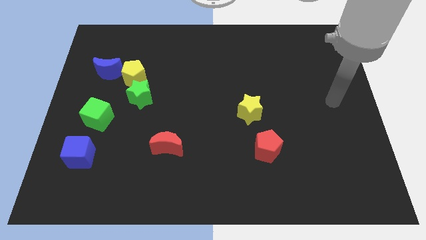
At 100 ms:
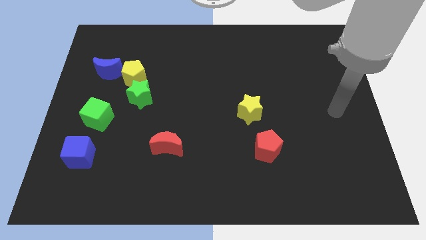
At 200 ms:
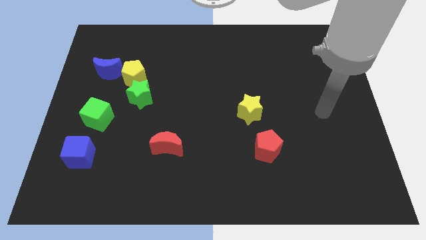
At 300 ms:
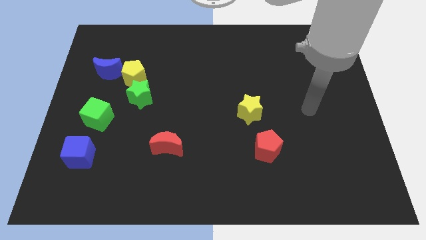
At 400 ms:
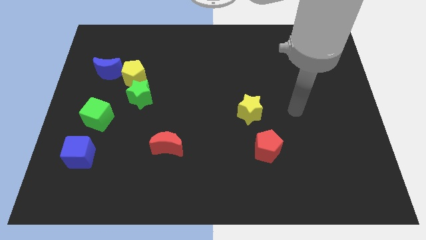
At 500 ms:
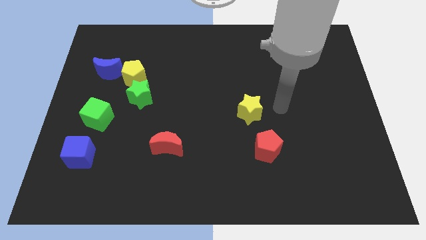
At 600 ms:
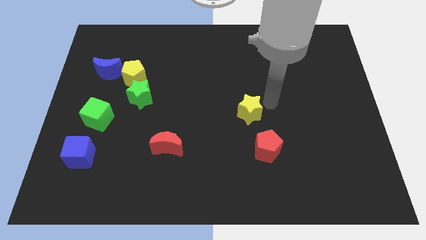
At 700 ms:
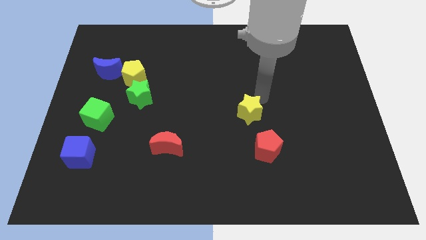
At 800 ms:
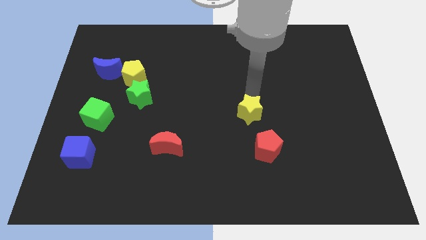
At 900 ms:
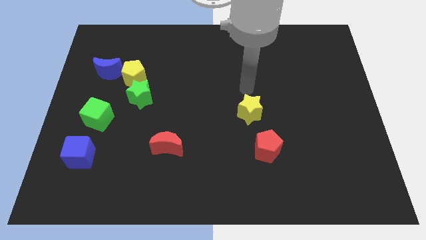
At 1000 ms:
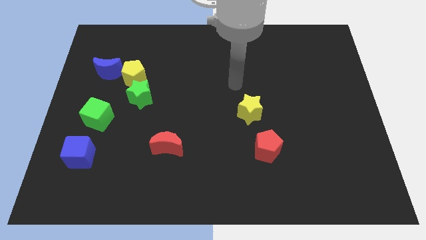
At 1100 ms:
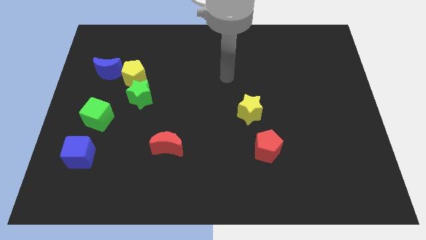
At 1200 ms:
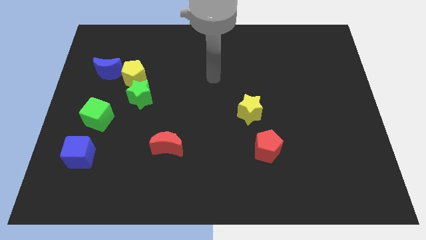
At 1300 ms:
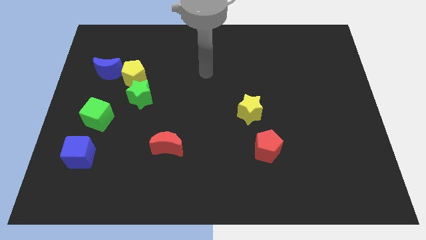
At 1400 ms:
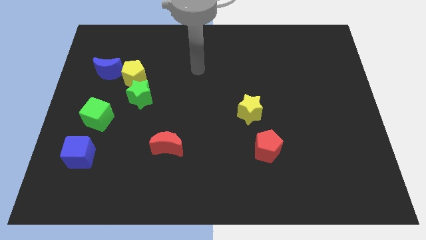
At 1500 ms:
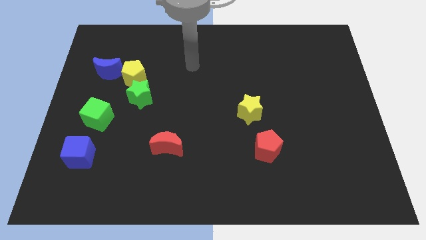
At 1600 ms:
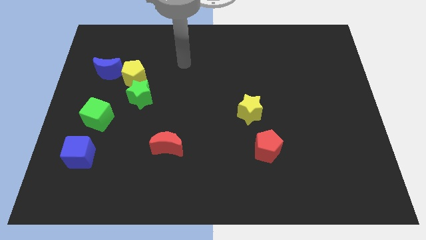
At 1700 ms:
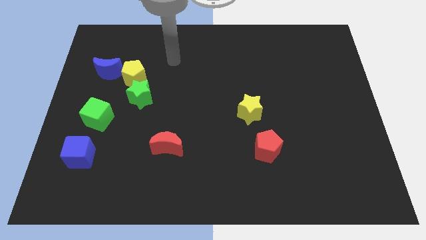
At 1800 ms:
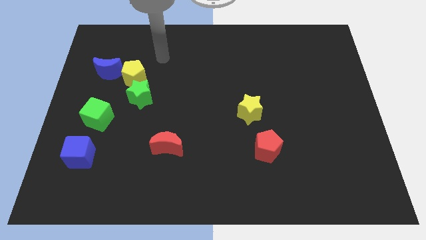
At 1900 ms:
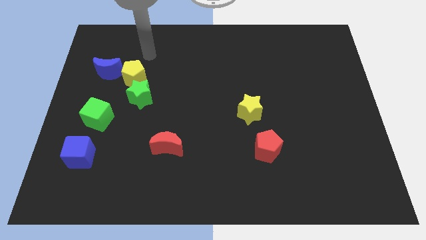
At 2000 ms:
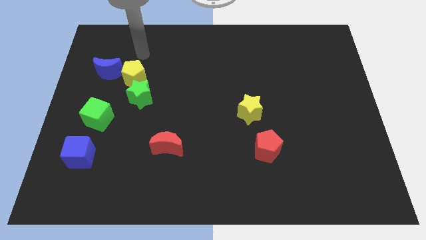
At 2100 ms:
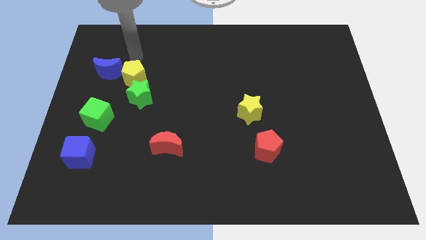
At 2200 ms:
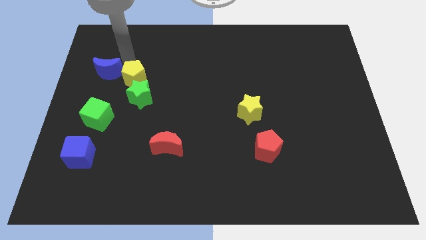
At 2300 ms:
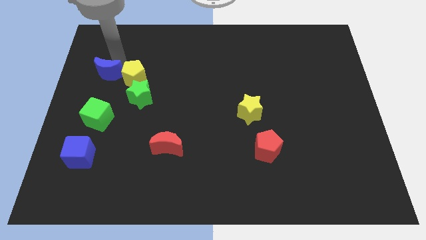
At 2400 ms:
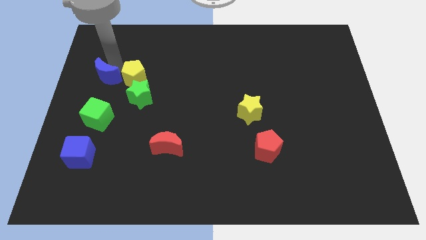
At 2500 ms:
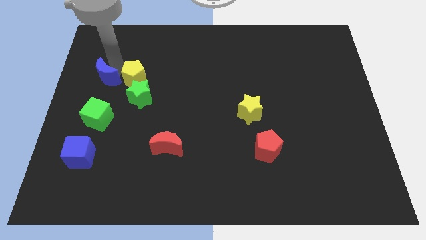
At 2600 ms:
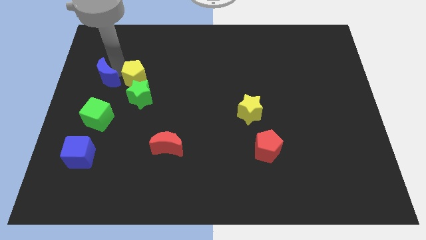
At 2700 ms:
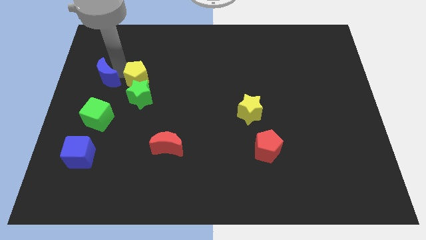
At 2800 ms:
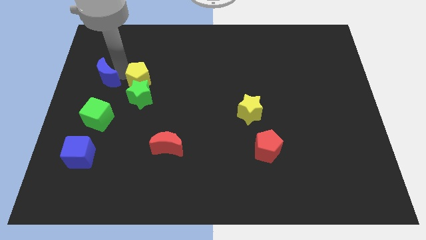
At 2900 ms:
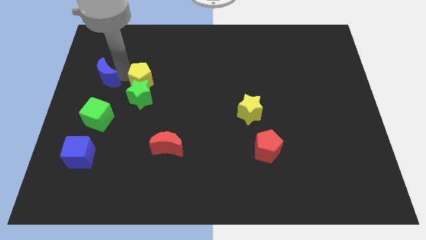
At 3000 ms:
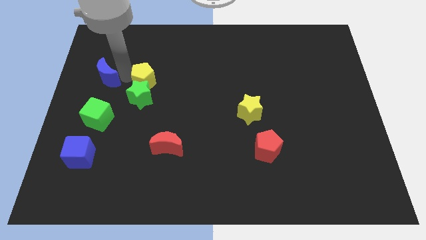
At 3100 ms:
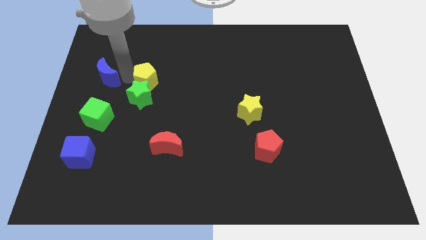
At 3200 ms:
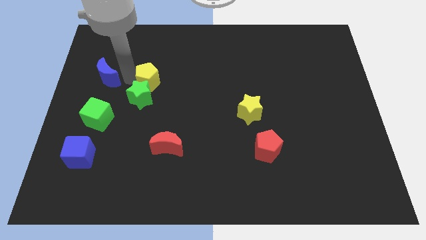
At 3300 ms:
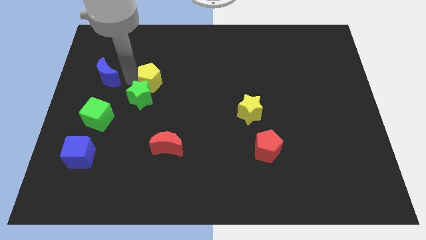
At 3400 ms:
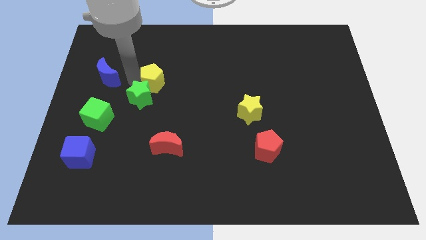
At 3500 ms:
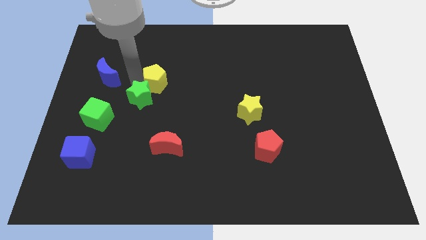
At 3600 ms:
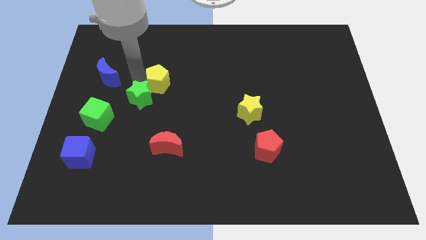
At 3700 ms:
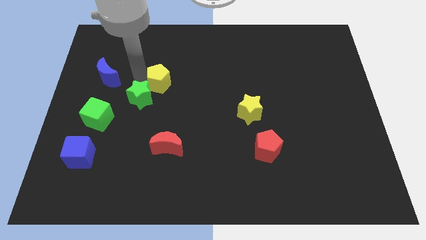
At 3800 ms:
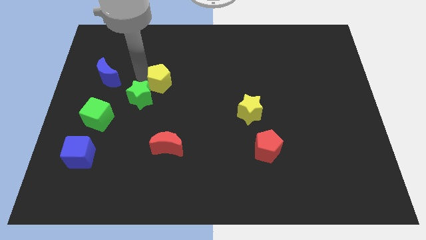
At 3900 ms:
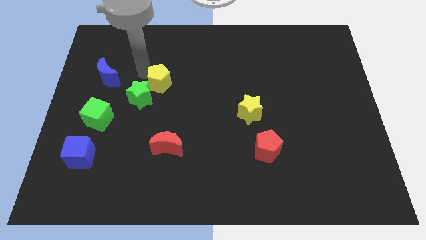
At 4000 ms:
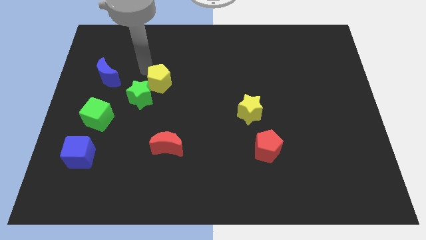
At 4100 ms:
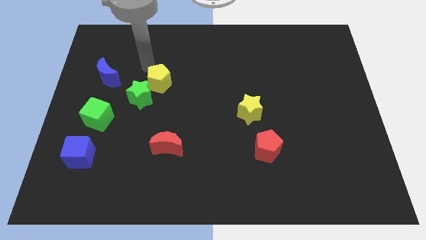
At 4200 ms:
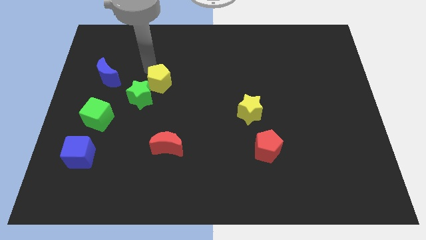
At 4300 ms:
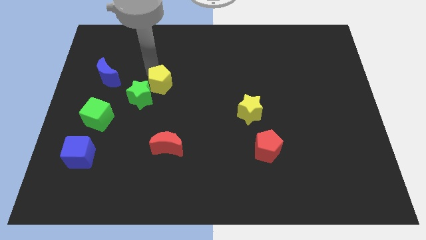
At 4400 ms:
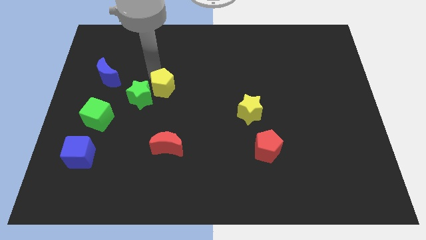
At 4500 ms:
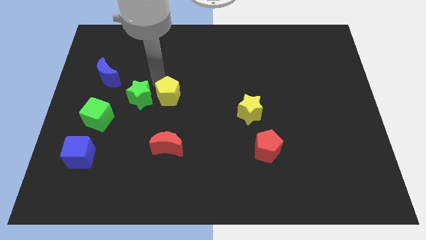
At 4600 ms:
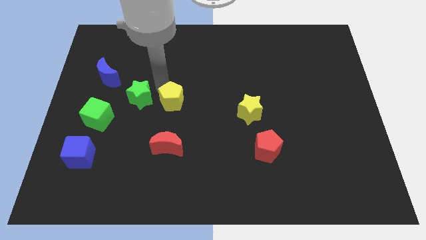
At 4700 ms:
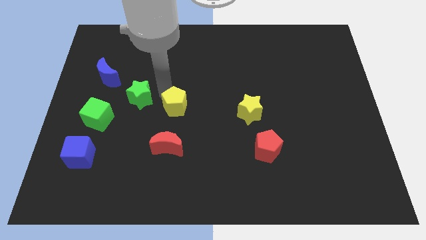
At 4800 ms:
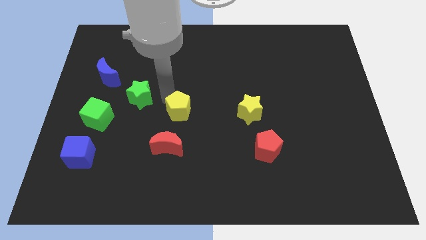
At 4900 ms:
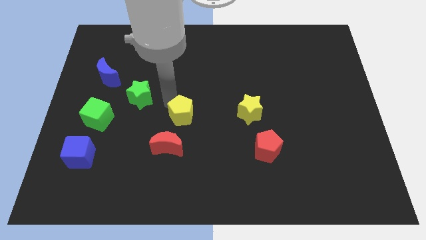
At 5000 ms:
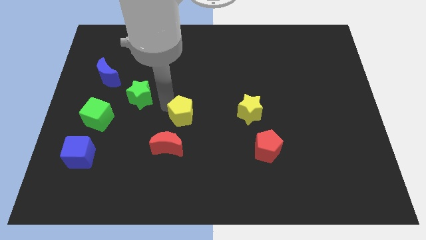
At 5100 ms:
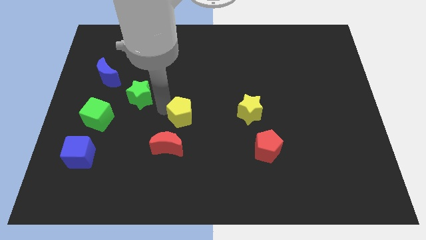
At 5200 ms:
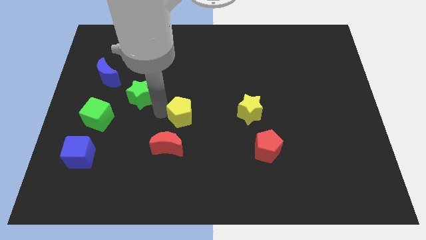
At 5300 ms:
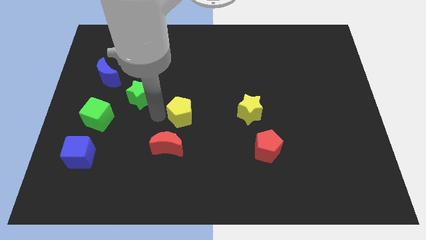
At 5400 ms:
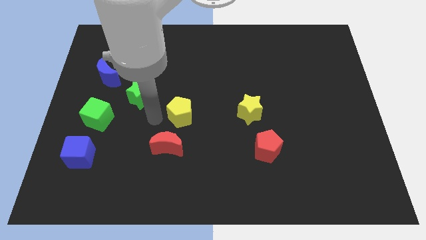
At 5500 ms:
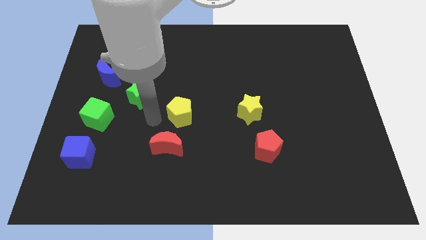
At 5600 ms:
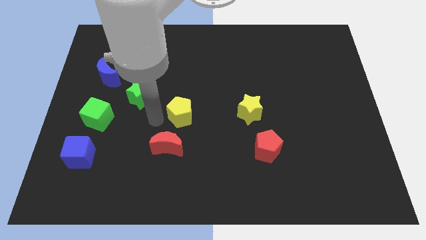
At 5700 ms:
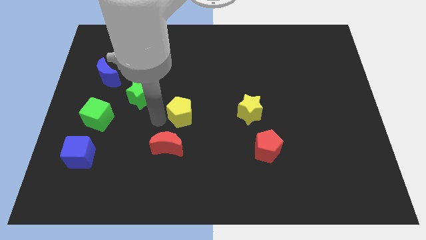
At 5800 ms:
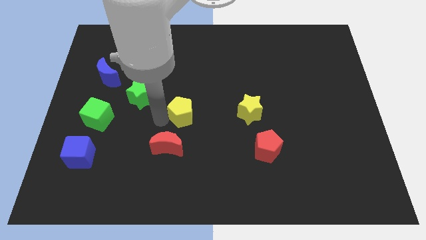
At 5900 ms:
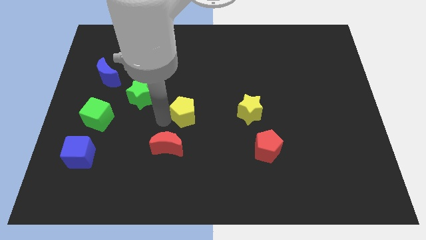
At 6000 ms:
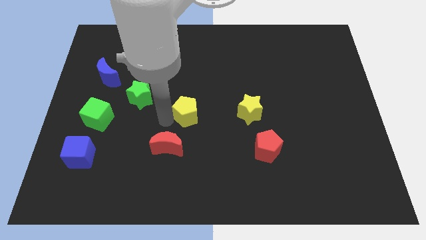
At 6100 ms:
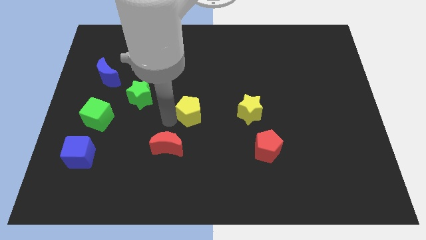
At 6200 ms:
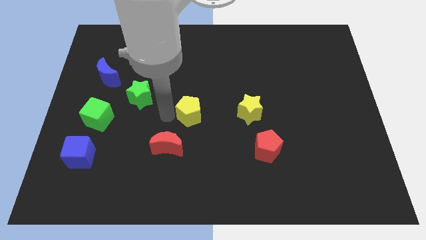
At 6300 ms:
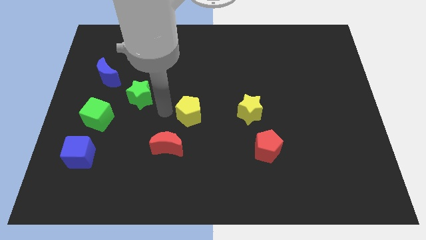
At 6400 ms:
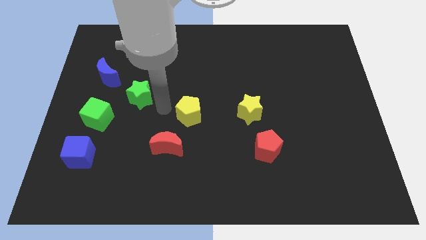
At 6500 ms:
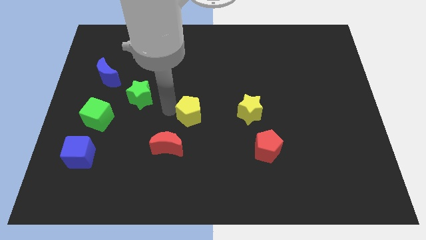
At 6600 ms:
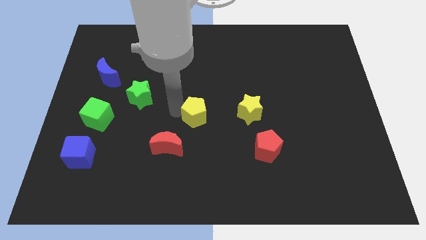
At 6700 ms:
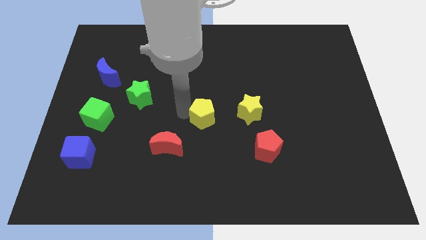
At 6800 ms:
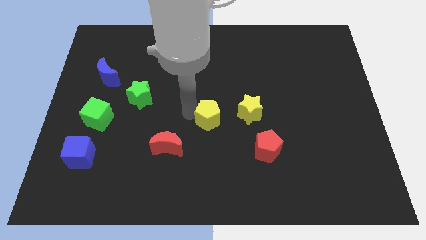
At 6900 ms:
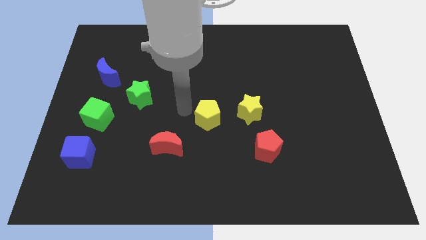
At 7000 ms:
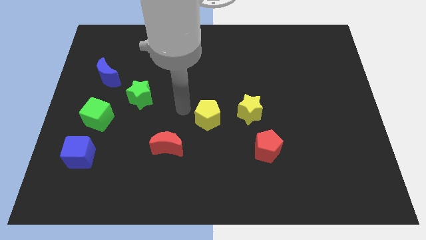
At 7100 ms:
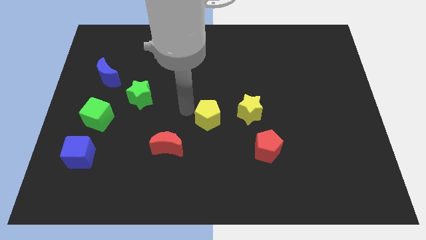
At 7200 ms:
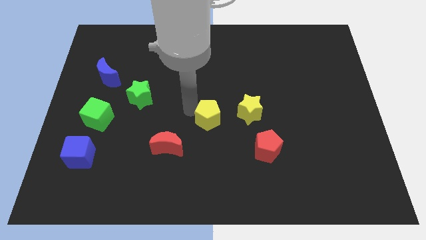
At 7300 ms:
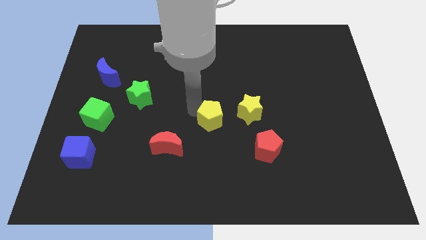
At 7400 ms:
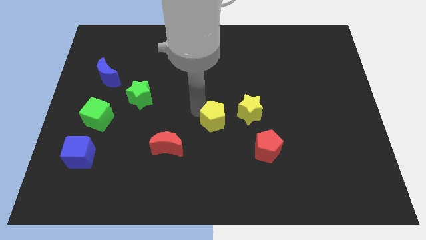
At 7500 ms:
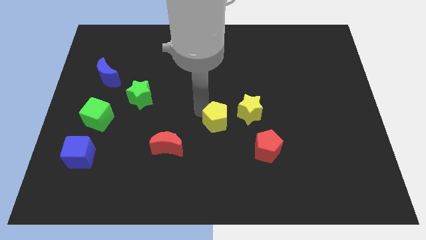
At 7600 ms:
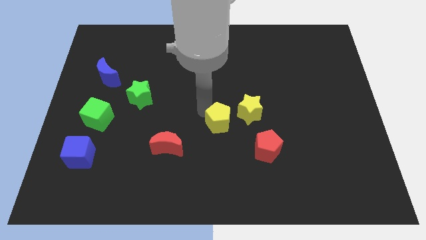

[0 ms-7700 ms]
put the yellow pentagon to the top left side of the red pentagon
